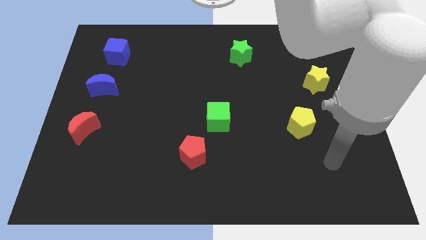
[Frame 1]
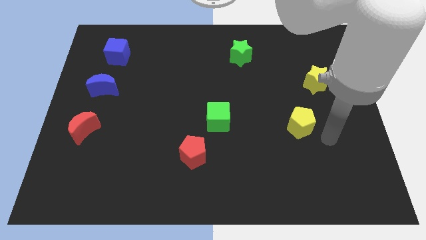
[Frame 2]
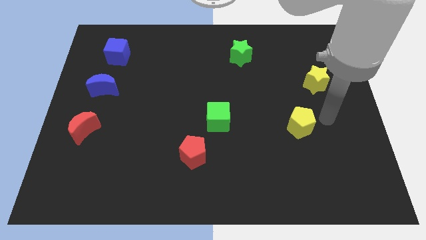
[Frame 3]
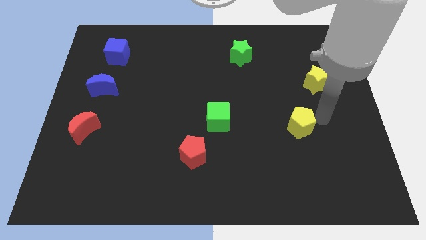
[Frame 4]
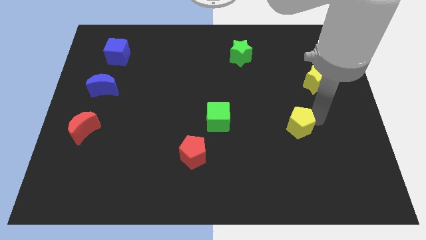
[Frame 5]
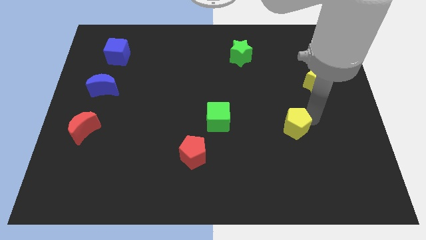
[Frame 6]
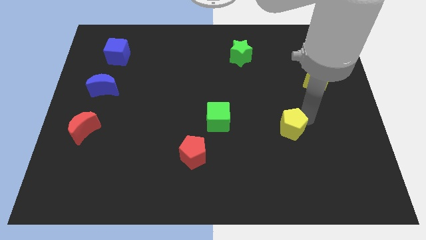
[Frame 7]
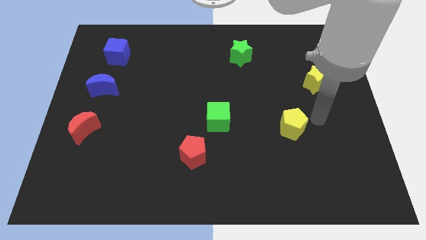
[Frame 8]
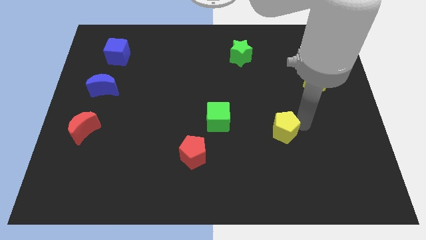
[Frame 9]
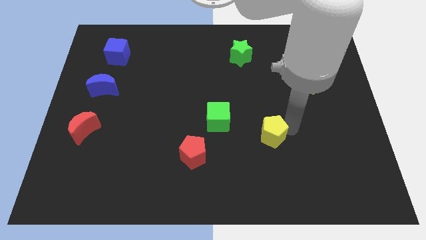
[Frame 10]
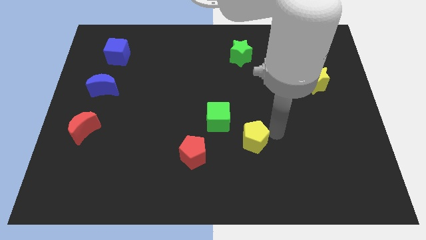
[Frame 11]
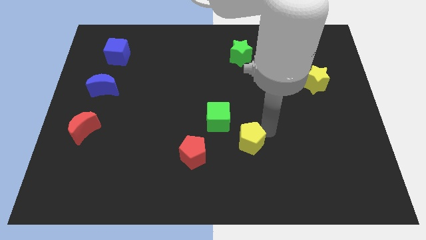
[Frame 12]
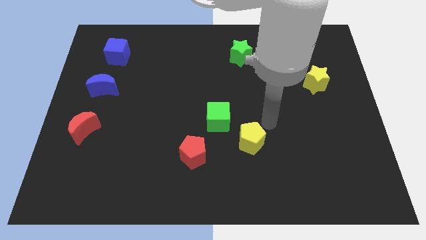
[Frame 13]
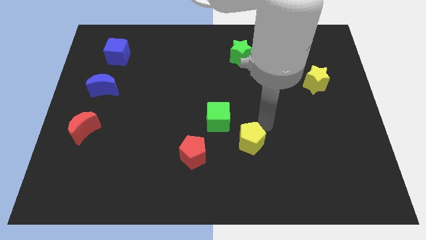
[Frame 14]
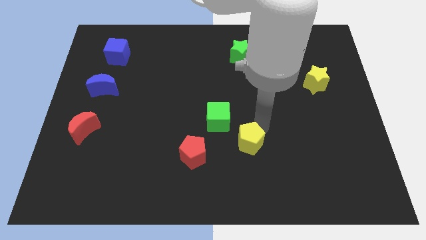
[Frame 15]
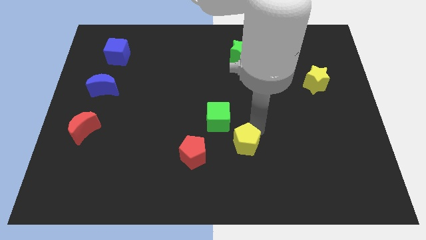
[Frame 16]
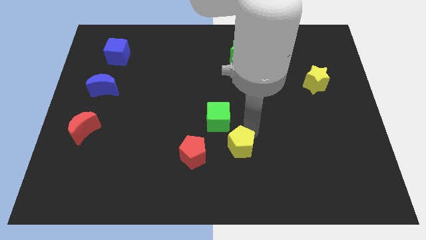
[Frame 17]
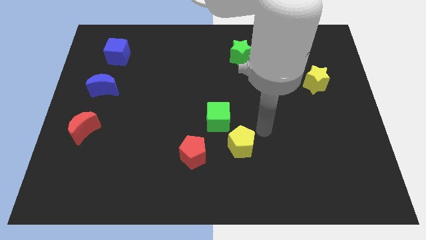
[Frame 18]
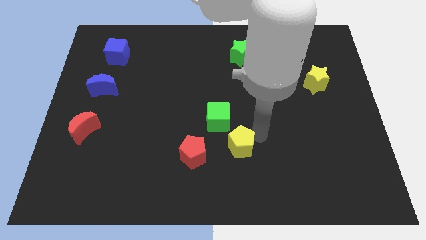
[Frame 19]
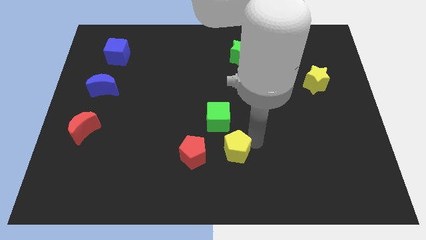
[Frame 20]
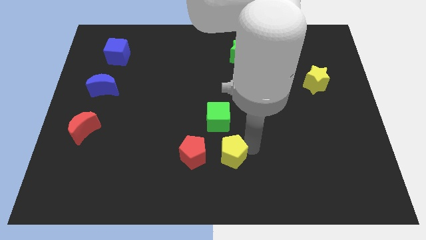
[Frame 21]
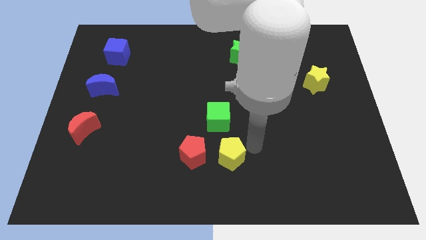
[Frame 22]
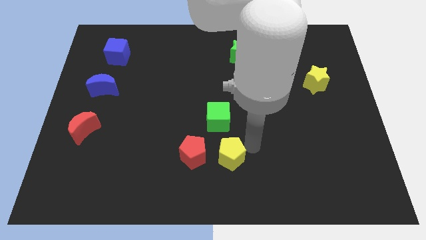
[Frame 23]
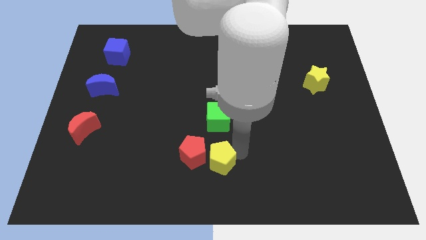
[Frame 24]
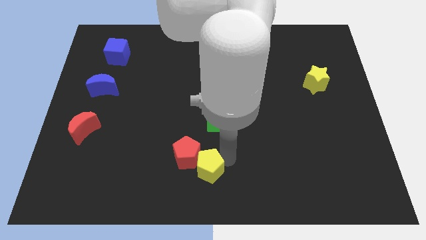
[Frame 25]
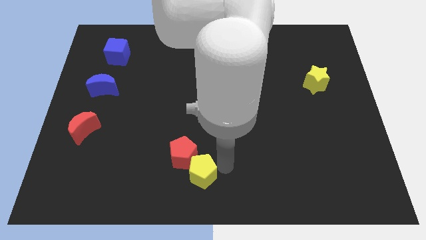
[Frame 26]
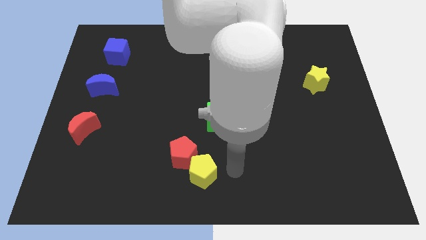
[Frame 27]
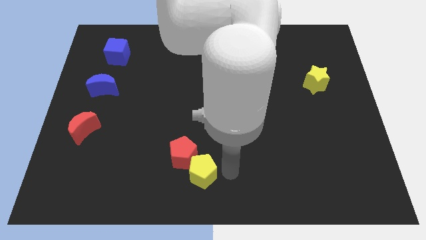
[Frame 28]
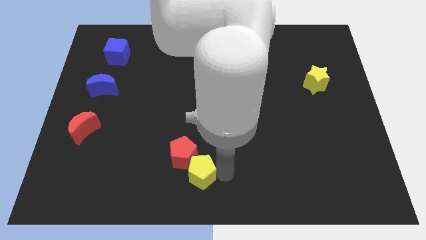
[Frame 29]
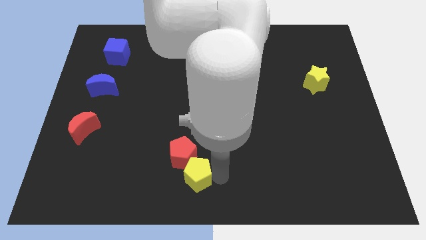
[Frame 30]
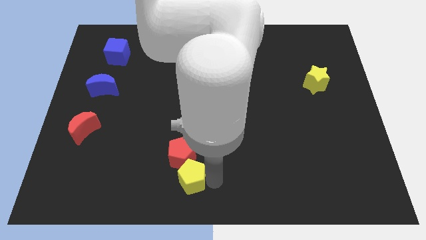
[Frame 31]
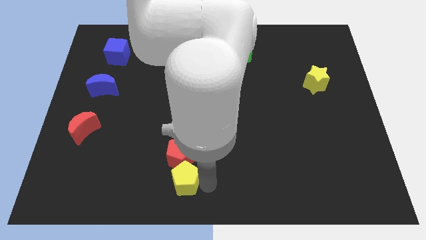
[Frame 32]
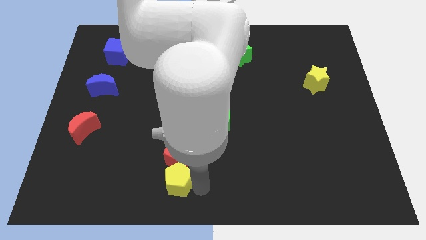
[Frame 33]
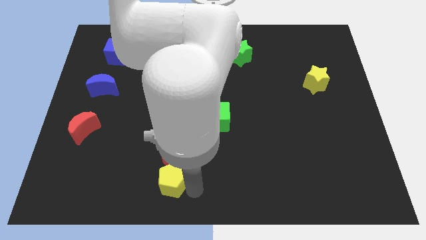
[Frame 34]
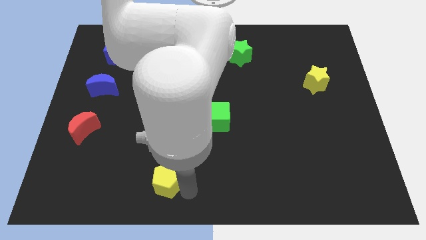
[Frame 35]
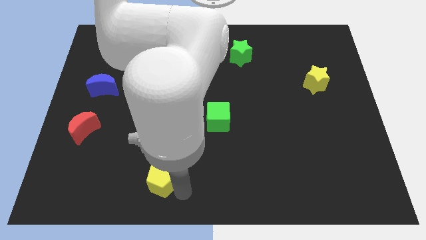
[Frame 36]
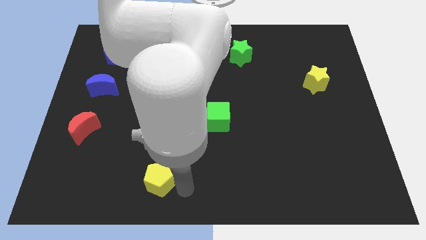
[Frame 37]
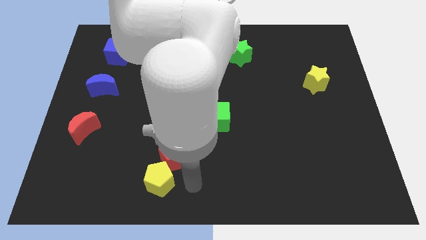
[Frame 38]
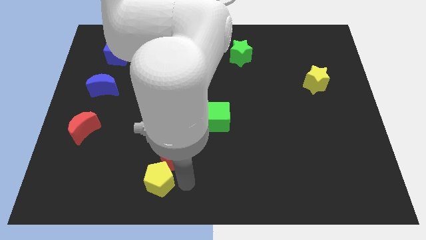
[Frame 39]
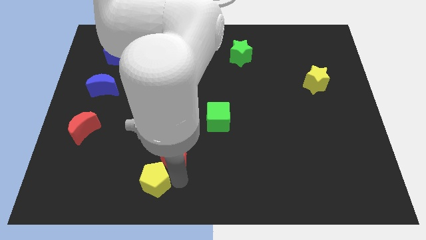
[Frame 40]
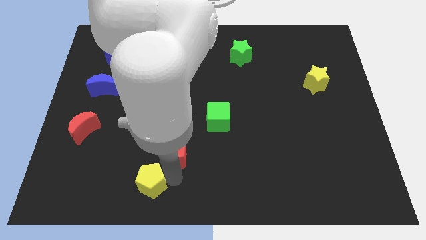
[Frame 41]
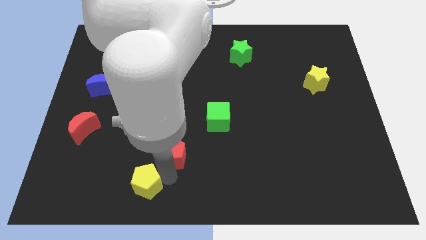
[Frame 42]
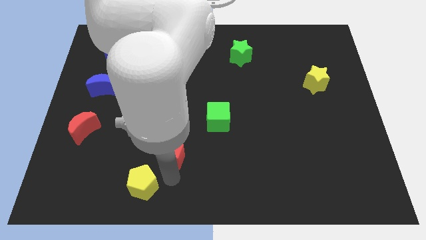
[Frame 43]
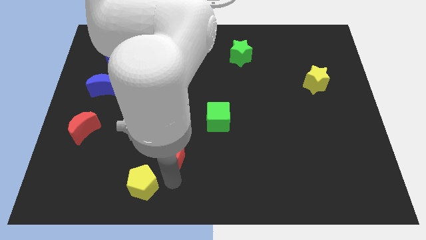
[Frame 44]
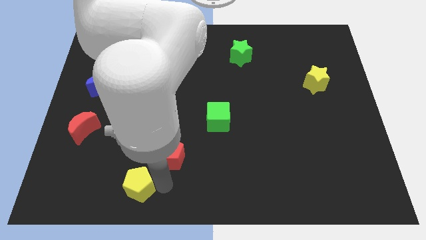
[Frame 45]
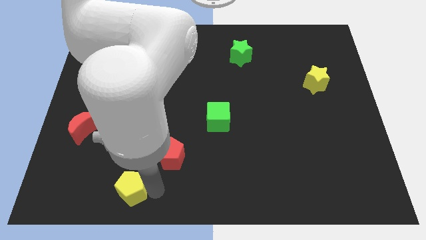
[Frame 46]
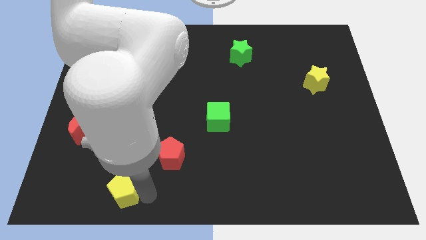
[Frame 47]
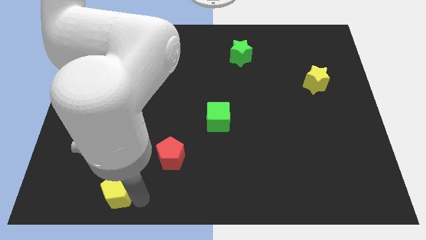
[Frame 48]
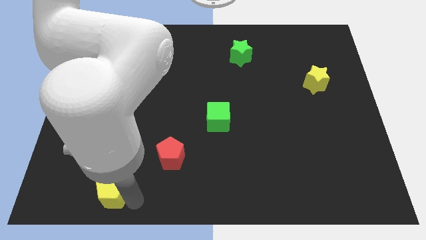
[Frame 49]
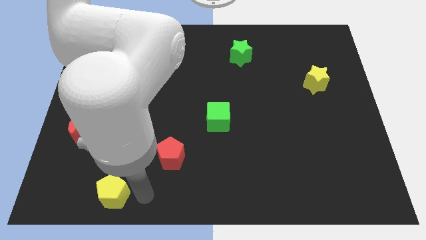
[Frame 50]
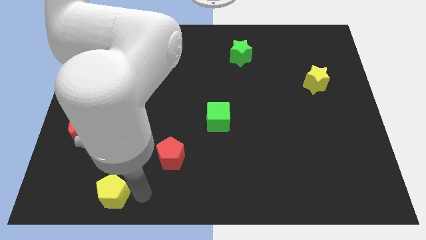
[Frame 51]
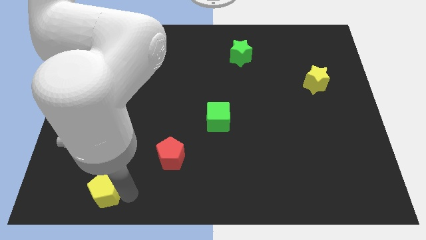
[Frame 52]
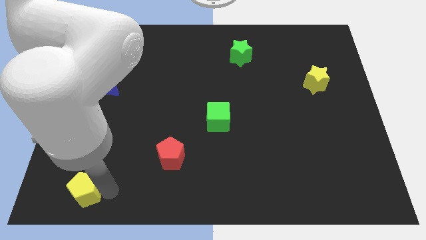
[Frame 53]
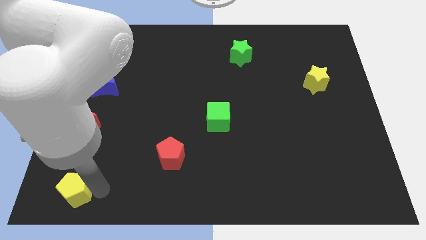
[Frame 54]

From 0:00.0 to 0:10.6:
put the yellow pentagon to the bottom left

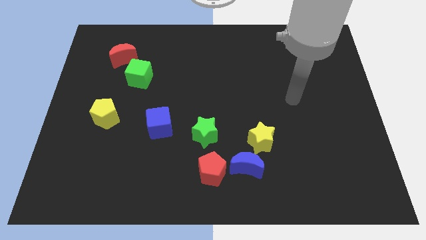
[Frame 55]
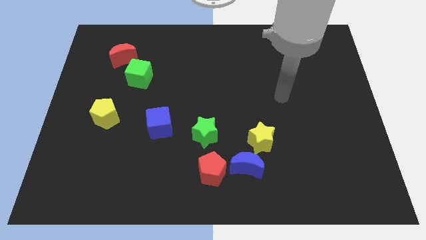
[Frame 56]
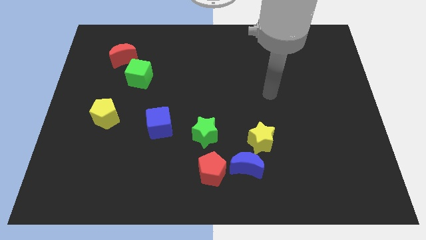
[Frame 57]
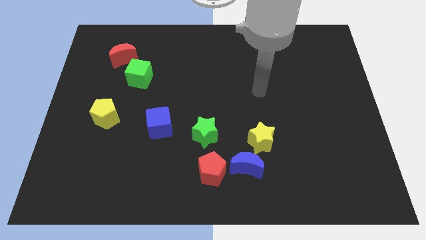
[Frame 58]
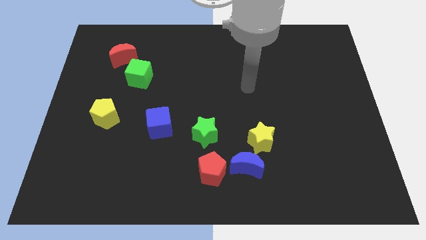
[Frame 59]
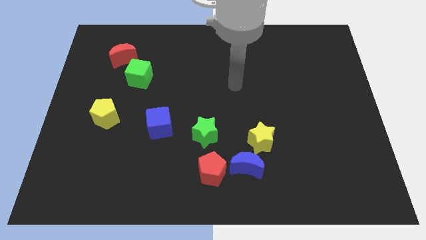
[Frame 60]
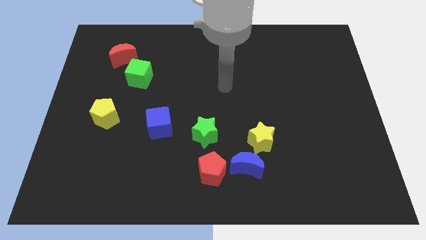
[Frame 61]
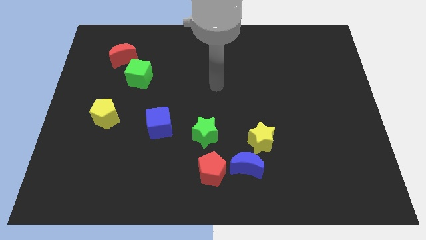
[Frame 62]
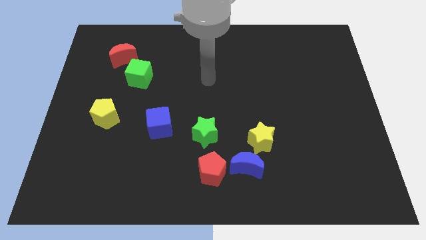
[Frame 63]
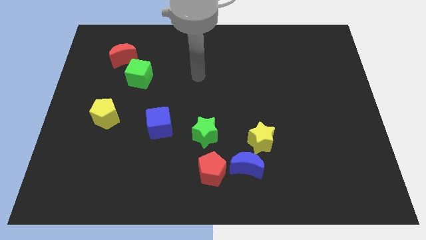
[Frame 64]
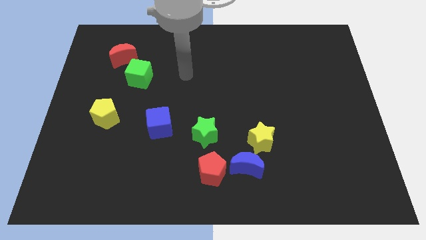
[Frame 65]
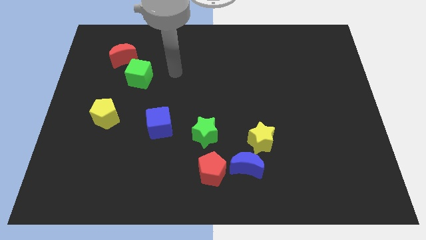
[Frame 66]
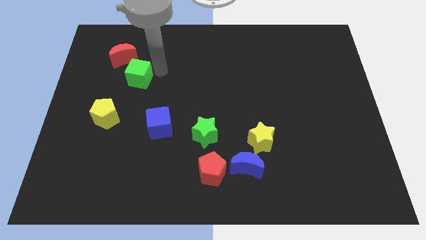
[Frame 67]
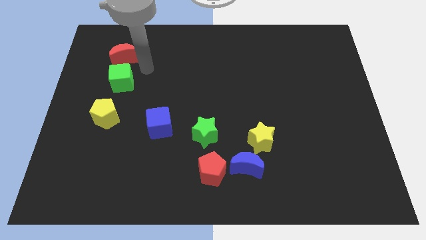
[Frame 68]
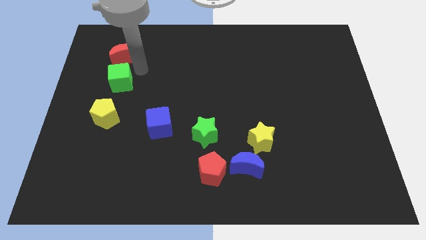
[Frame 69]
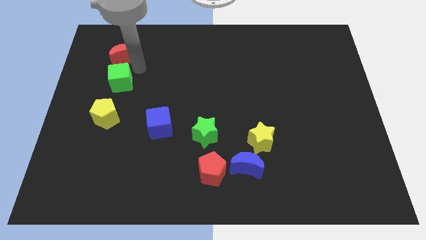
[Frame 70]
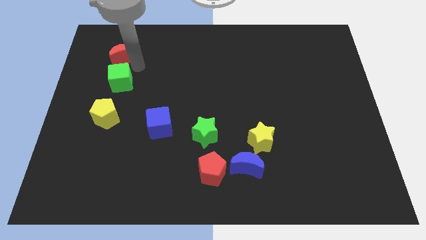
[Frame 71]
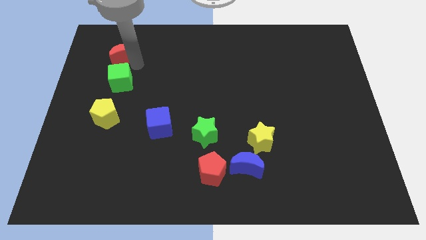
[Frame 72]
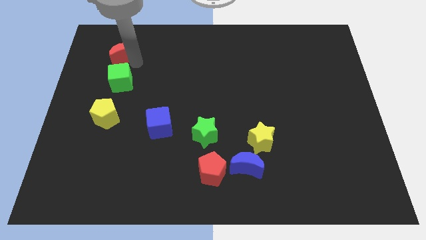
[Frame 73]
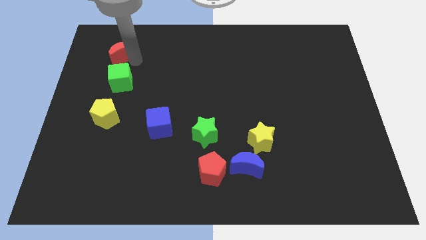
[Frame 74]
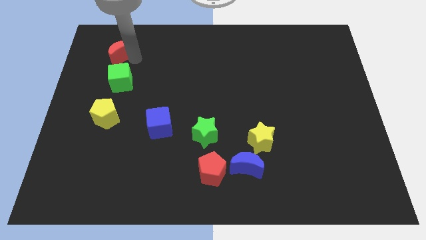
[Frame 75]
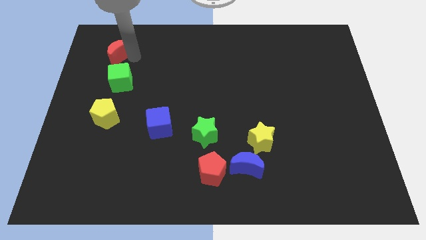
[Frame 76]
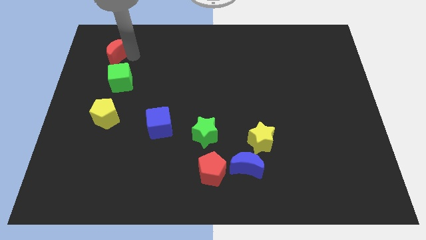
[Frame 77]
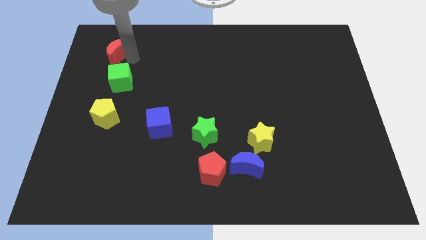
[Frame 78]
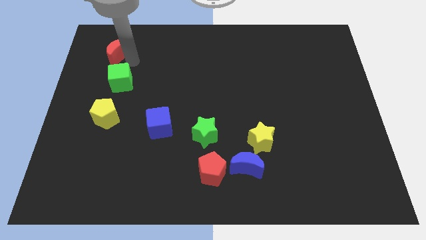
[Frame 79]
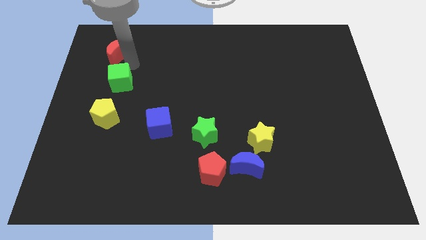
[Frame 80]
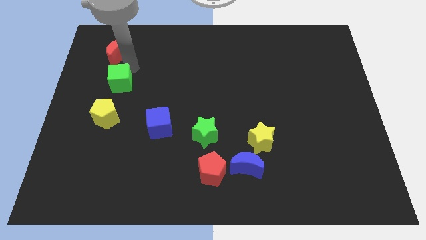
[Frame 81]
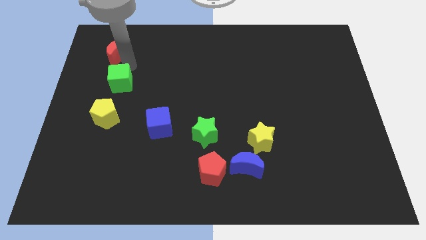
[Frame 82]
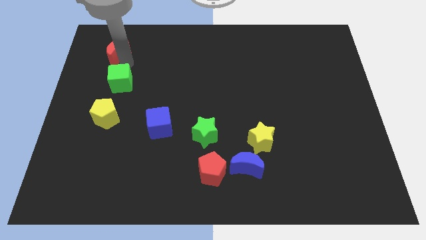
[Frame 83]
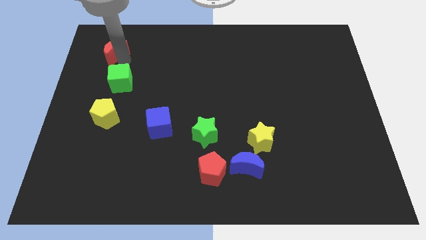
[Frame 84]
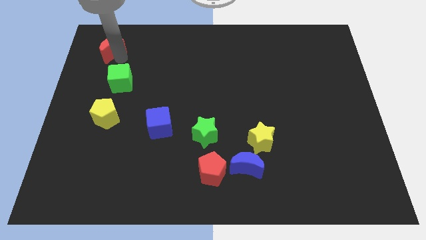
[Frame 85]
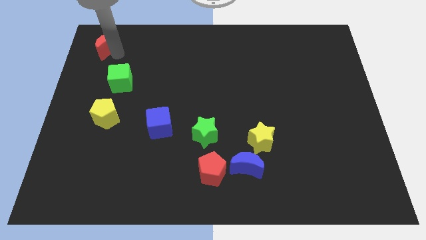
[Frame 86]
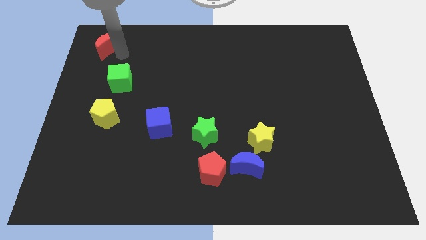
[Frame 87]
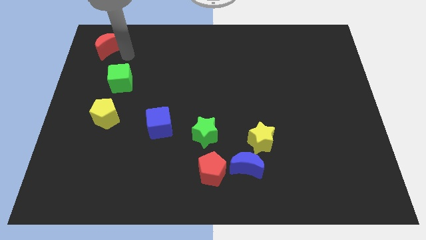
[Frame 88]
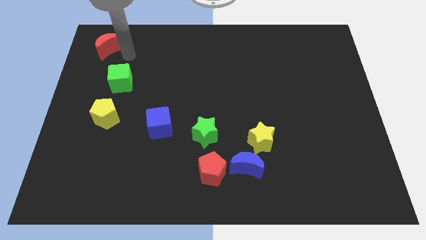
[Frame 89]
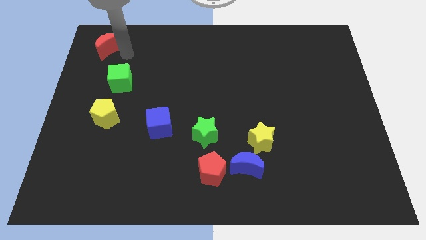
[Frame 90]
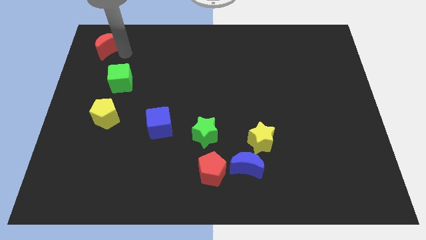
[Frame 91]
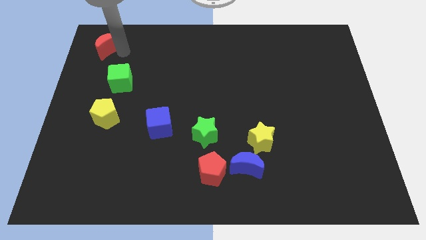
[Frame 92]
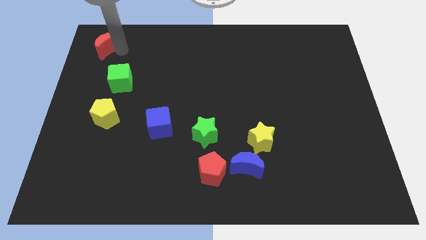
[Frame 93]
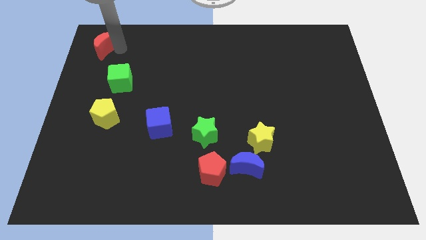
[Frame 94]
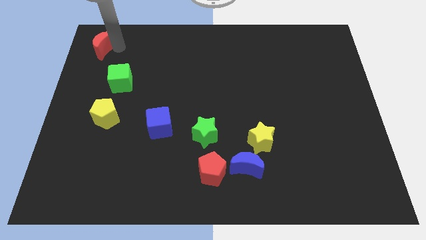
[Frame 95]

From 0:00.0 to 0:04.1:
slide the red moon to the top left corner
